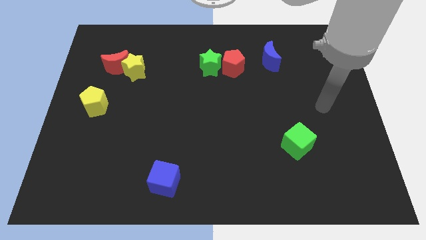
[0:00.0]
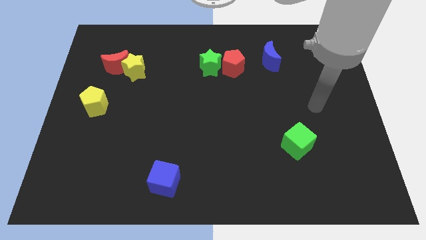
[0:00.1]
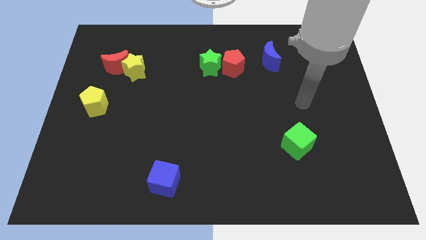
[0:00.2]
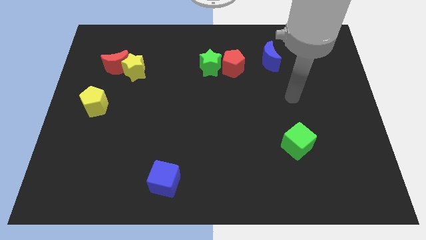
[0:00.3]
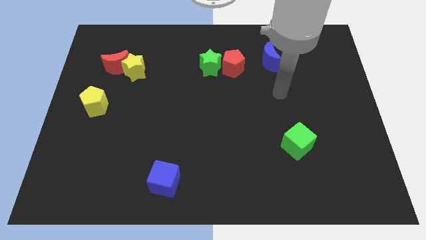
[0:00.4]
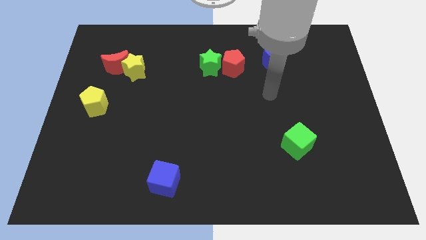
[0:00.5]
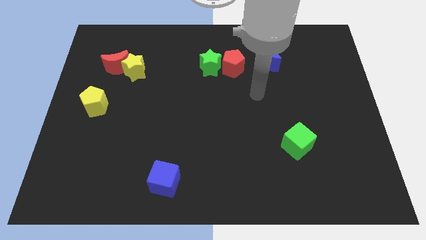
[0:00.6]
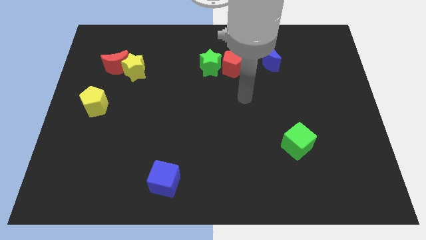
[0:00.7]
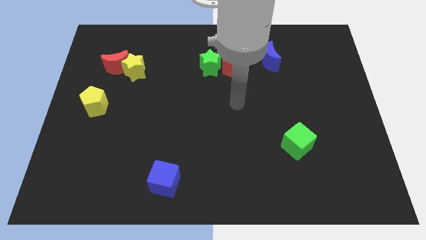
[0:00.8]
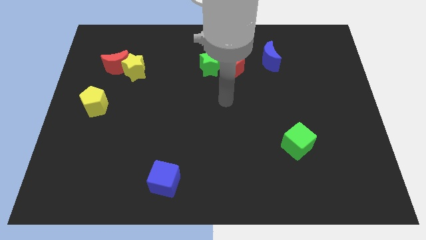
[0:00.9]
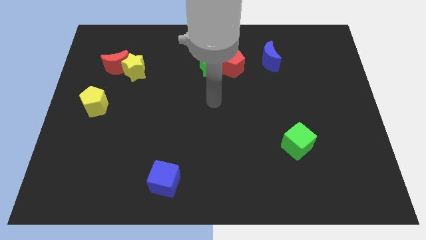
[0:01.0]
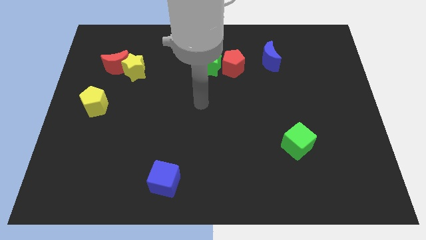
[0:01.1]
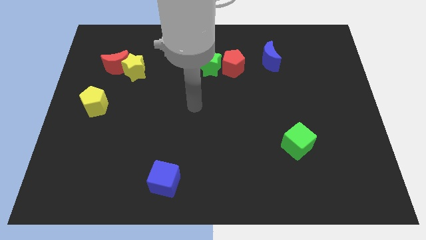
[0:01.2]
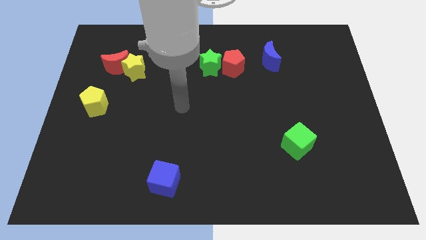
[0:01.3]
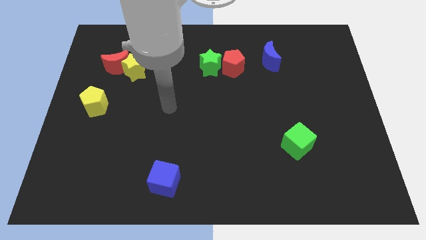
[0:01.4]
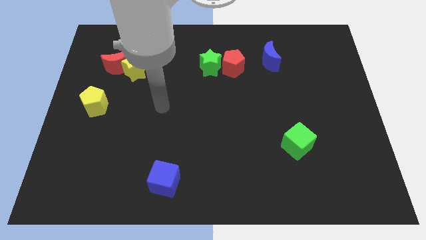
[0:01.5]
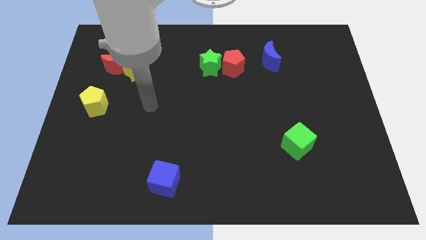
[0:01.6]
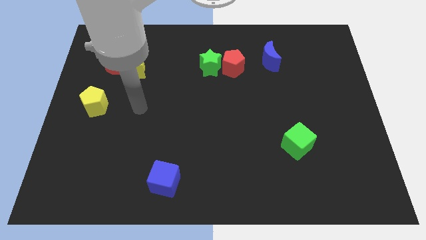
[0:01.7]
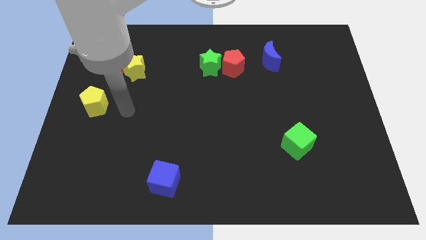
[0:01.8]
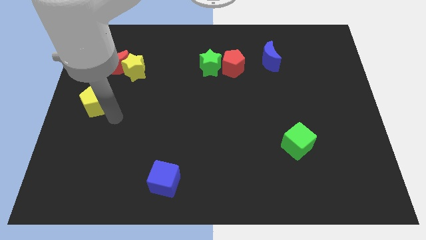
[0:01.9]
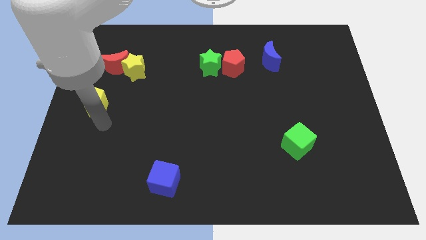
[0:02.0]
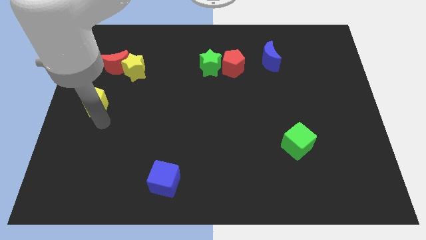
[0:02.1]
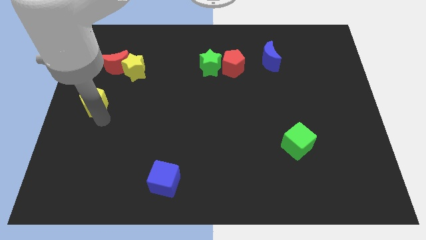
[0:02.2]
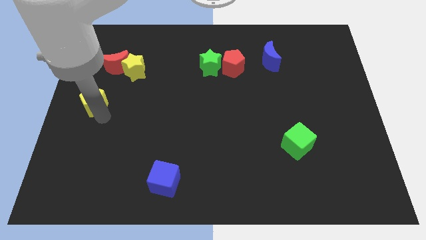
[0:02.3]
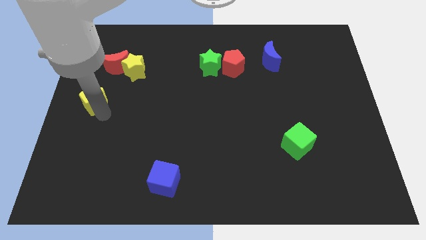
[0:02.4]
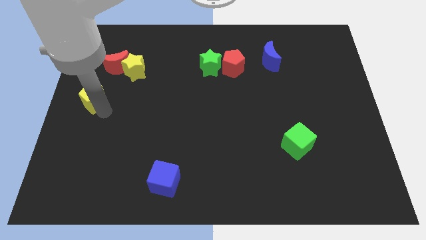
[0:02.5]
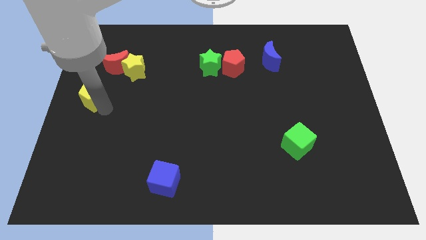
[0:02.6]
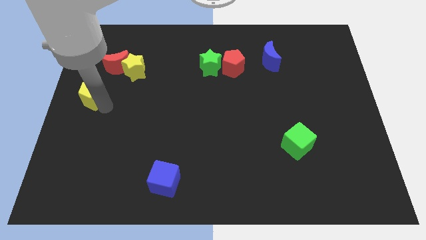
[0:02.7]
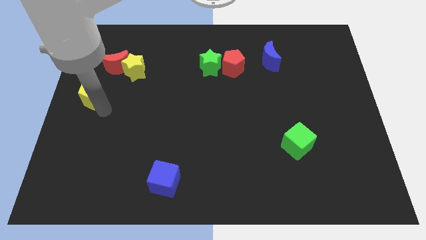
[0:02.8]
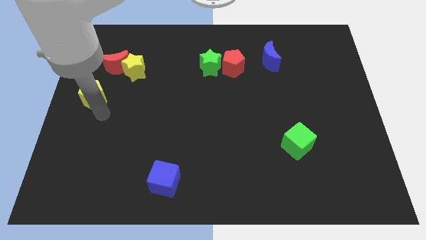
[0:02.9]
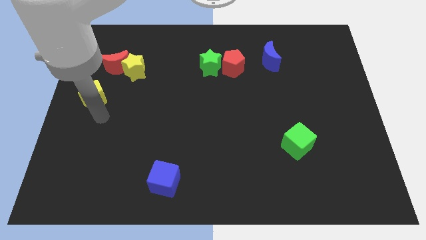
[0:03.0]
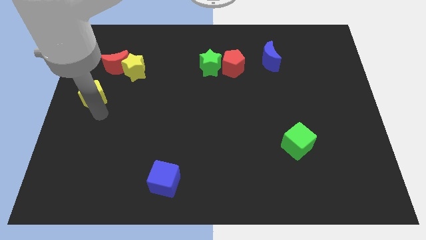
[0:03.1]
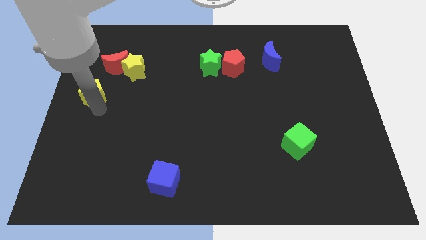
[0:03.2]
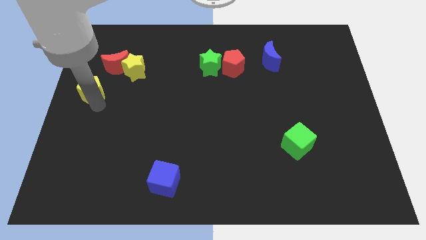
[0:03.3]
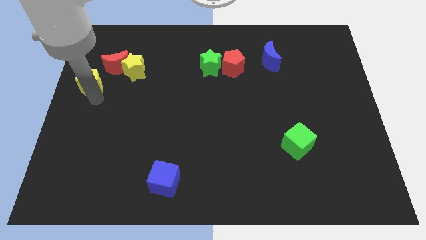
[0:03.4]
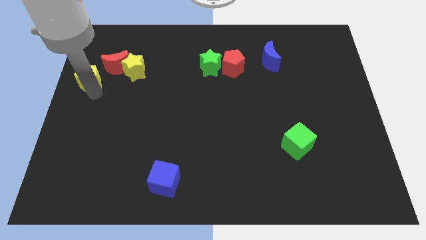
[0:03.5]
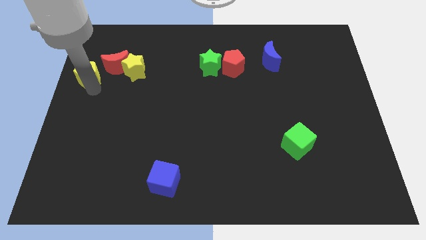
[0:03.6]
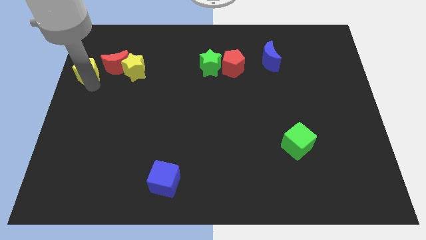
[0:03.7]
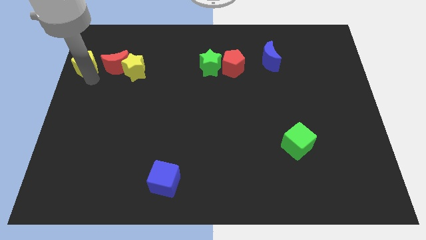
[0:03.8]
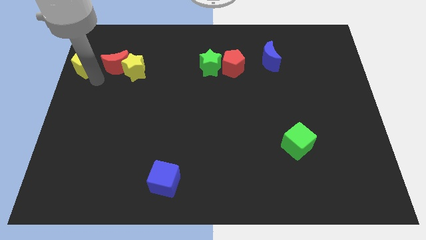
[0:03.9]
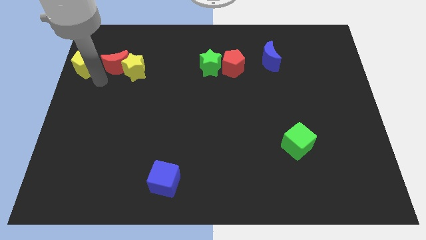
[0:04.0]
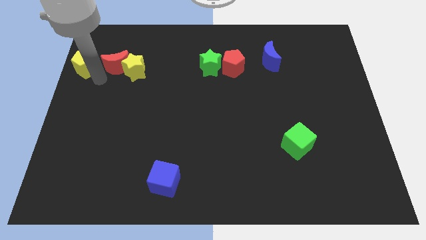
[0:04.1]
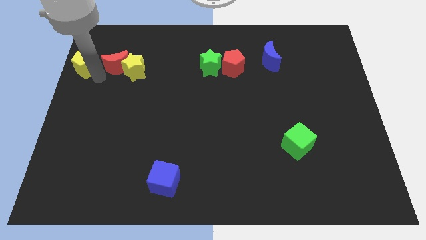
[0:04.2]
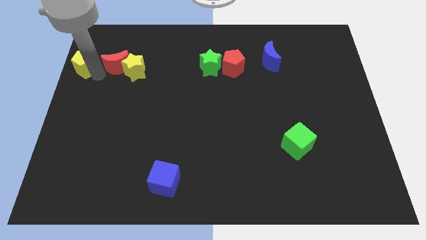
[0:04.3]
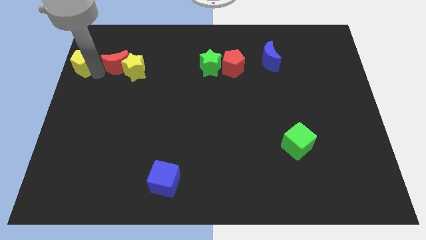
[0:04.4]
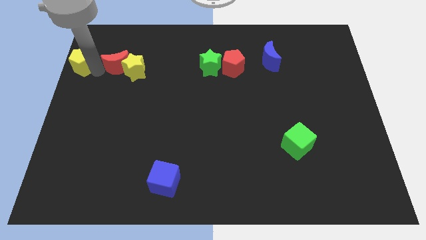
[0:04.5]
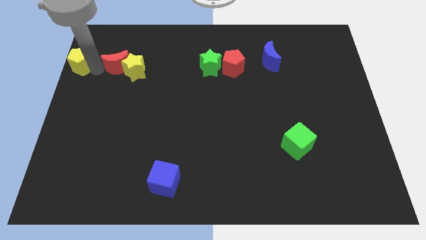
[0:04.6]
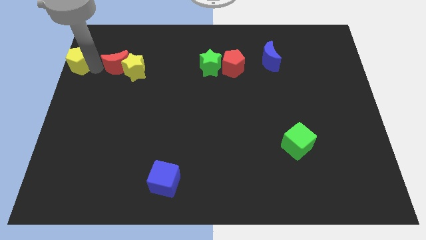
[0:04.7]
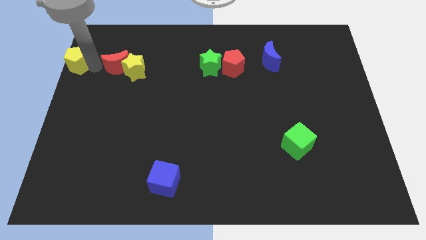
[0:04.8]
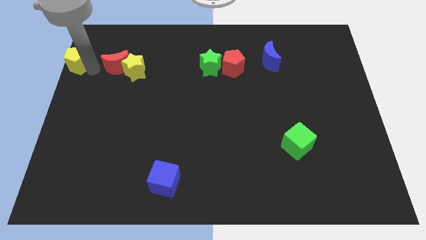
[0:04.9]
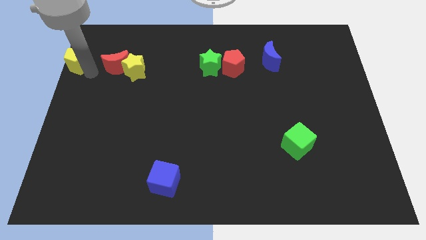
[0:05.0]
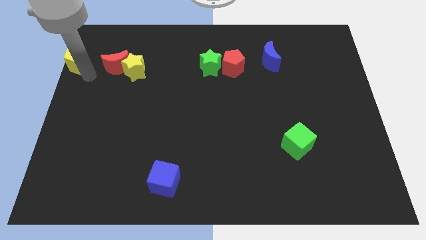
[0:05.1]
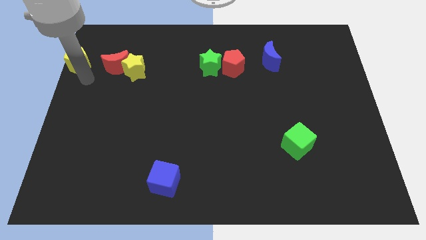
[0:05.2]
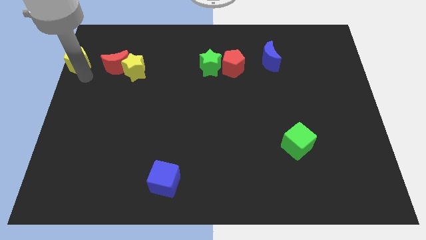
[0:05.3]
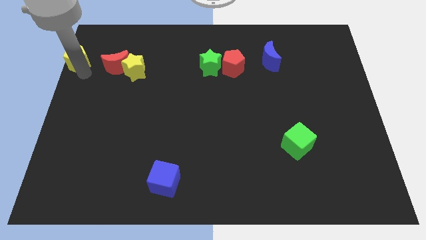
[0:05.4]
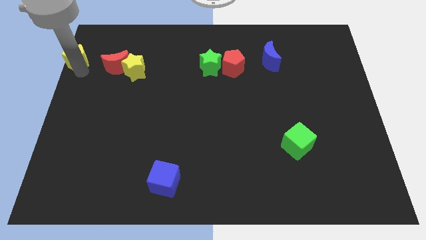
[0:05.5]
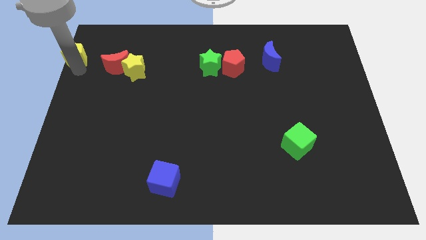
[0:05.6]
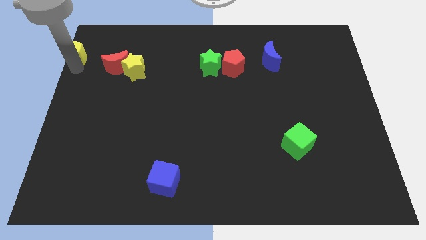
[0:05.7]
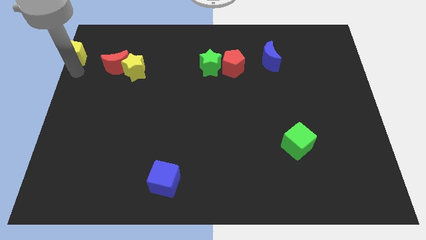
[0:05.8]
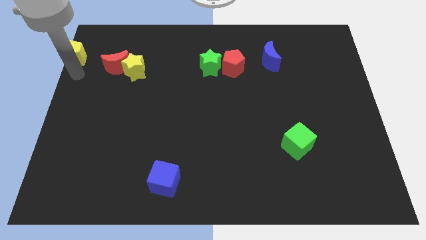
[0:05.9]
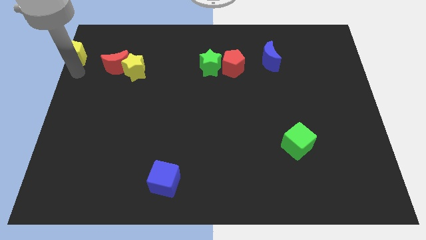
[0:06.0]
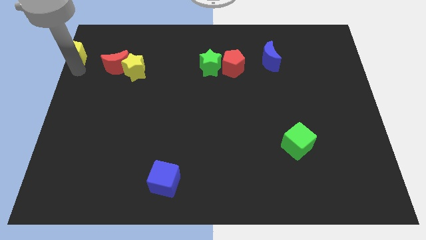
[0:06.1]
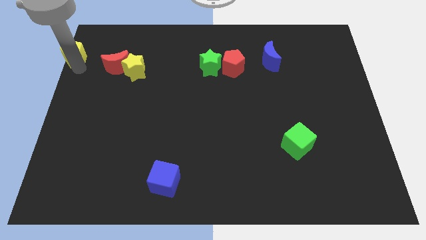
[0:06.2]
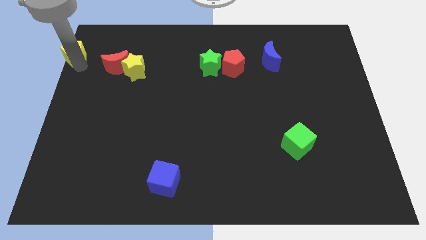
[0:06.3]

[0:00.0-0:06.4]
slide the yellow pentagon to the upper left corner
